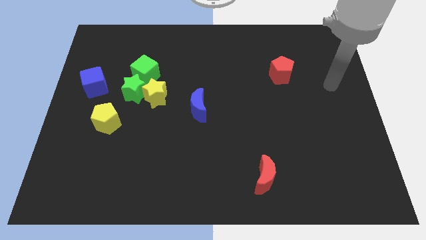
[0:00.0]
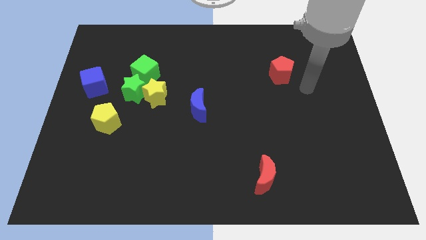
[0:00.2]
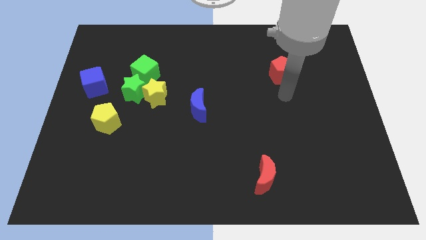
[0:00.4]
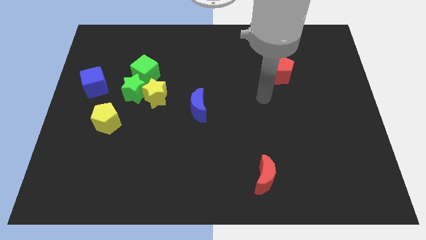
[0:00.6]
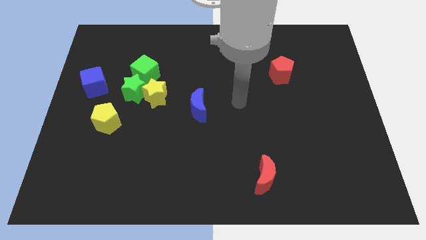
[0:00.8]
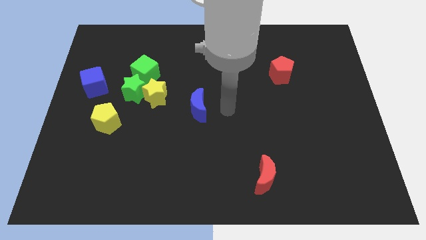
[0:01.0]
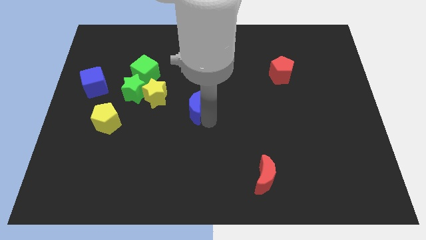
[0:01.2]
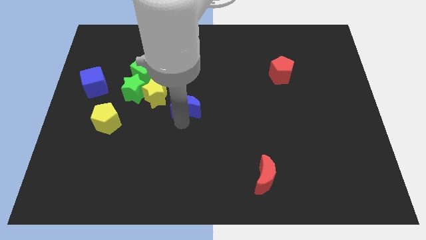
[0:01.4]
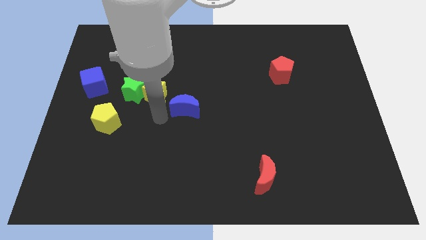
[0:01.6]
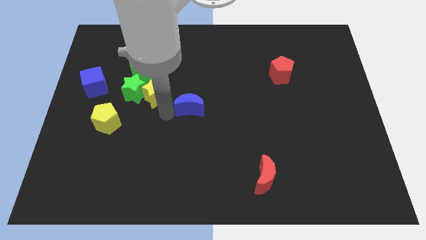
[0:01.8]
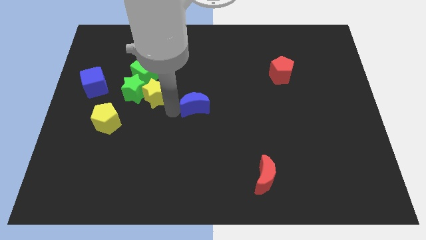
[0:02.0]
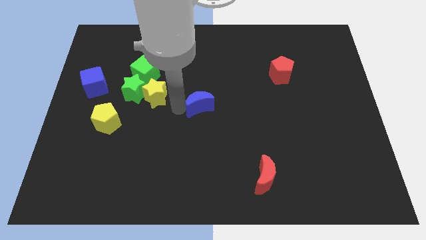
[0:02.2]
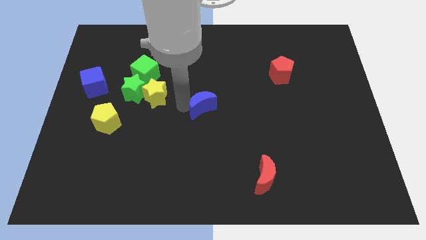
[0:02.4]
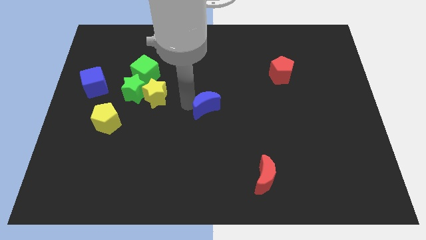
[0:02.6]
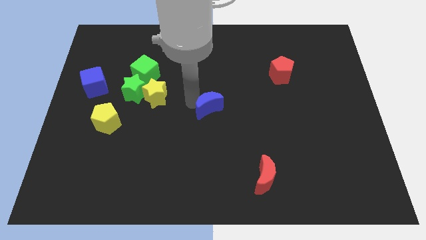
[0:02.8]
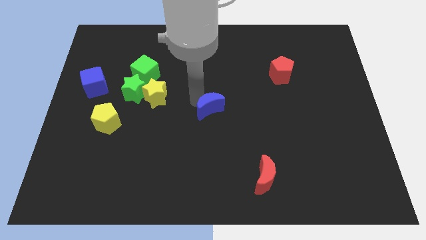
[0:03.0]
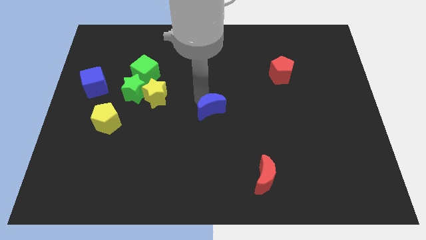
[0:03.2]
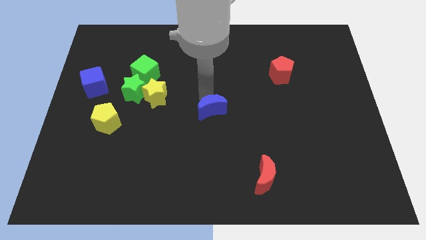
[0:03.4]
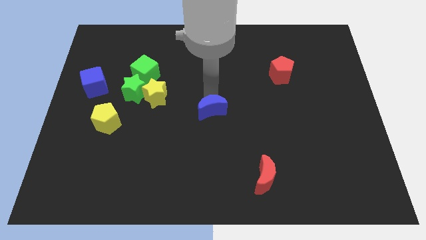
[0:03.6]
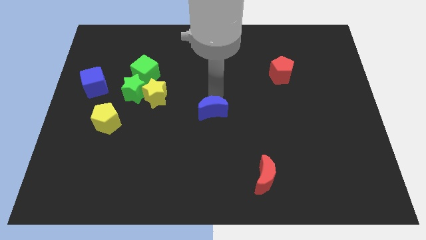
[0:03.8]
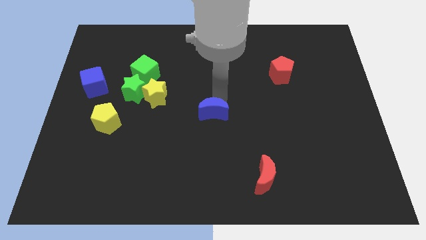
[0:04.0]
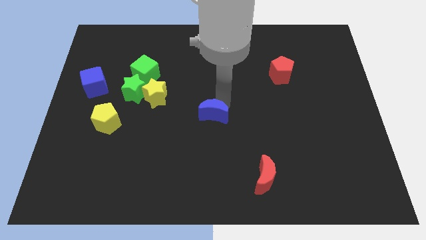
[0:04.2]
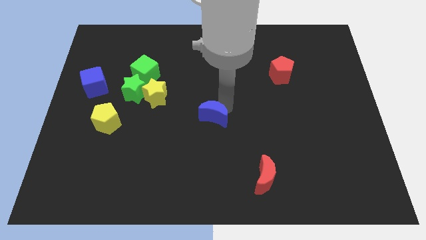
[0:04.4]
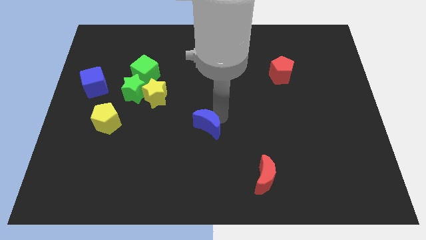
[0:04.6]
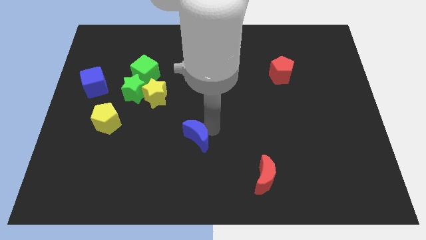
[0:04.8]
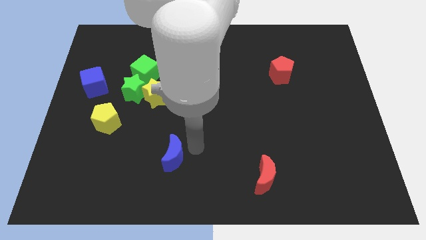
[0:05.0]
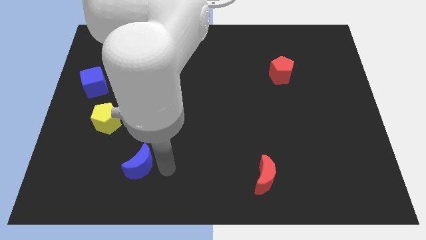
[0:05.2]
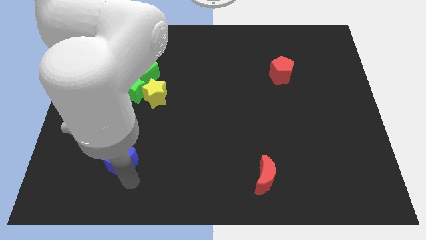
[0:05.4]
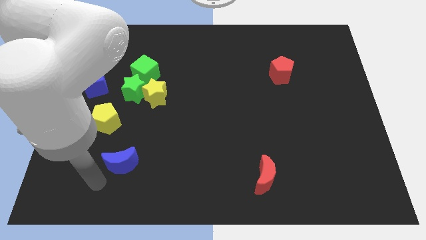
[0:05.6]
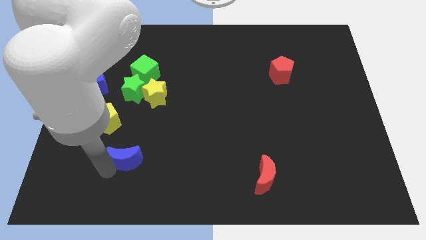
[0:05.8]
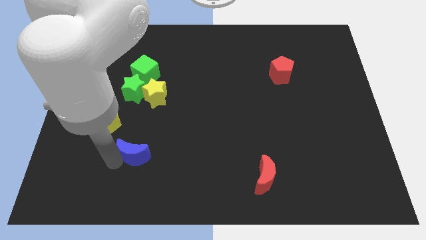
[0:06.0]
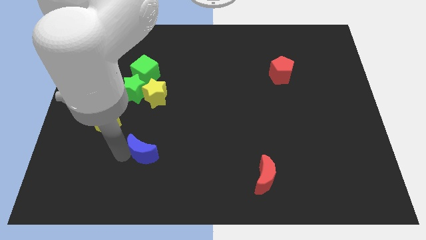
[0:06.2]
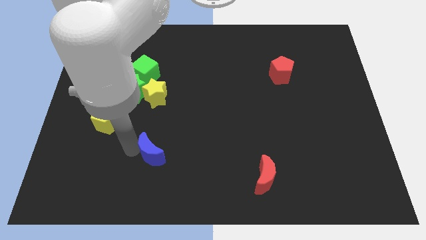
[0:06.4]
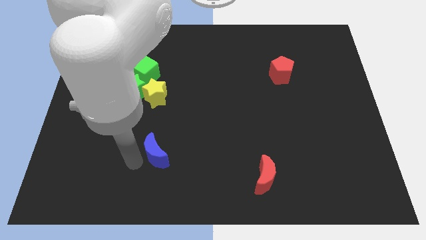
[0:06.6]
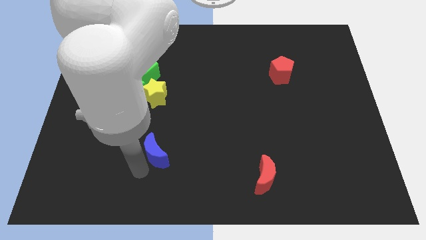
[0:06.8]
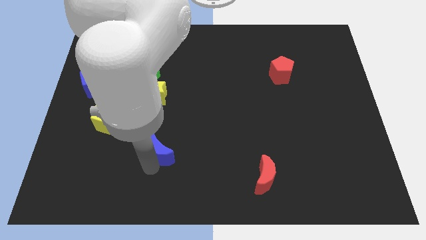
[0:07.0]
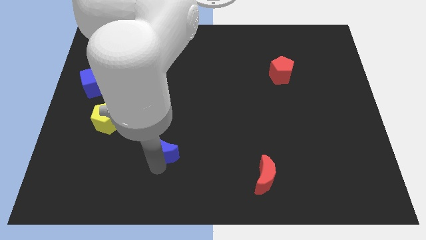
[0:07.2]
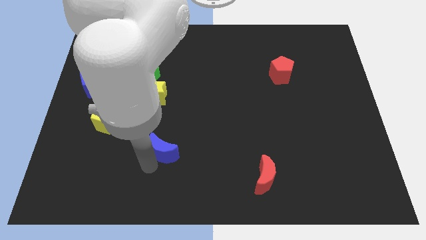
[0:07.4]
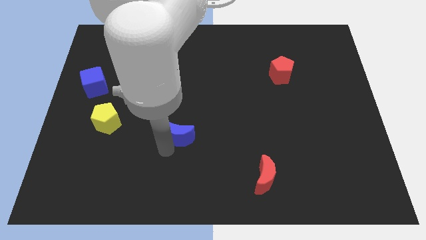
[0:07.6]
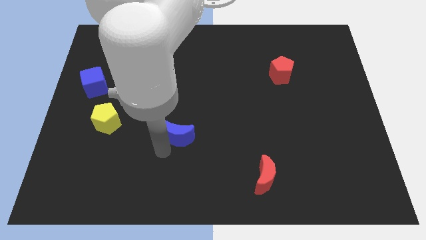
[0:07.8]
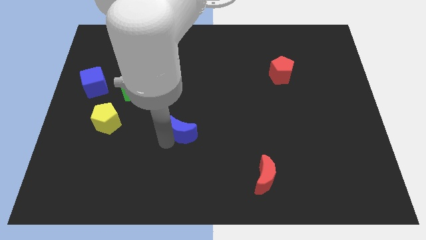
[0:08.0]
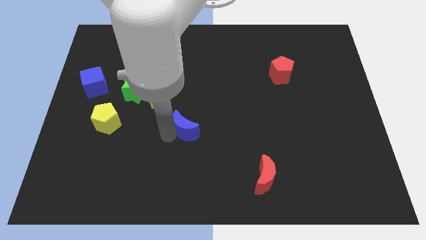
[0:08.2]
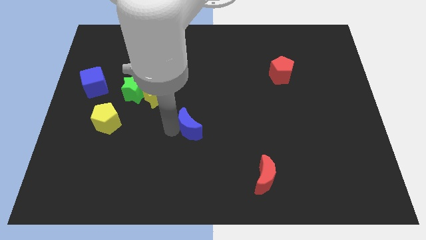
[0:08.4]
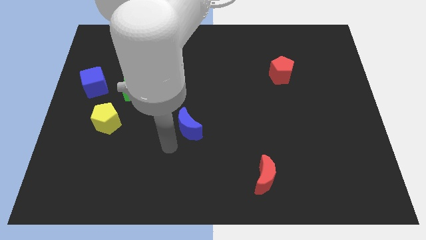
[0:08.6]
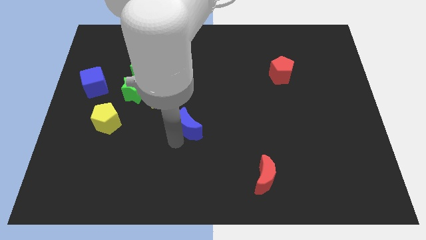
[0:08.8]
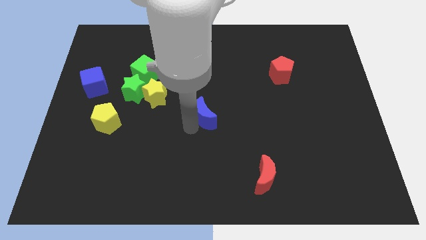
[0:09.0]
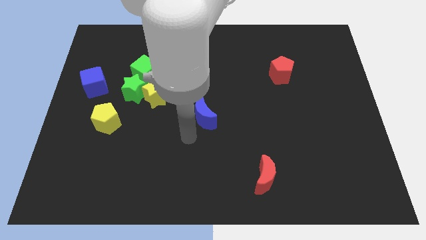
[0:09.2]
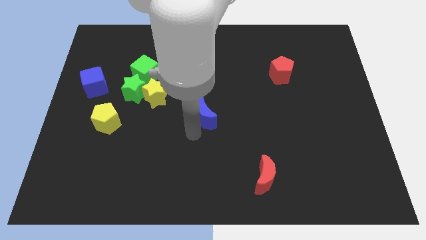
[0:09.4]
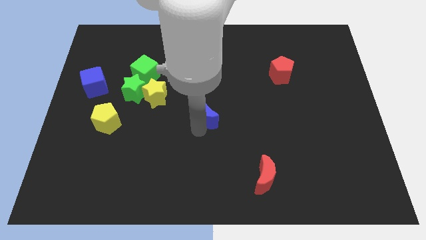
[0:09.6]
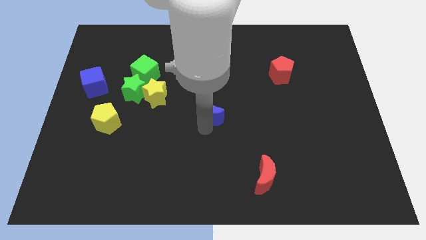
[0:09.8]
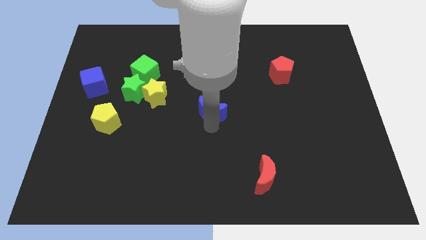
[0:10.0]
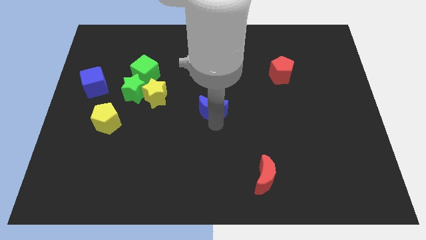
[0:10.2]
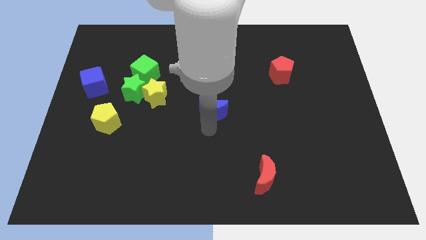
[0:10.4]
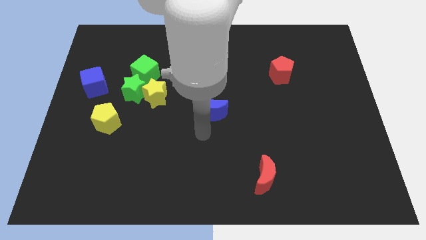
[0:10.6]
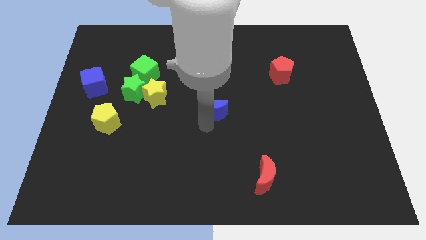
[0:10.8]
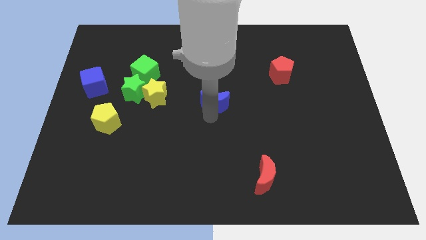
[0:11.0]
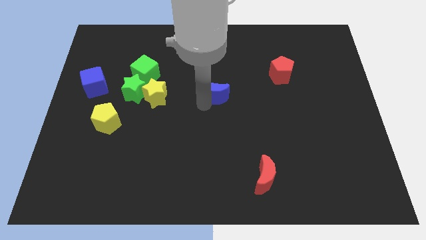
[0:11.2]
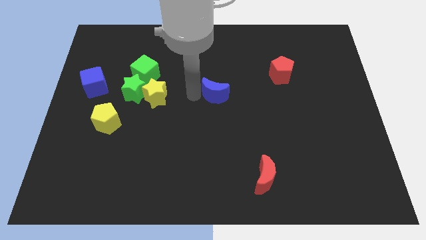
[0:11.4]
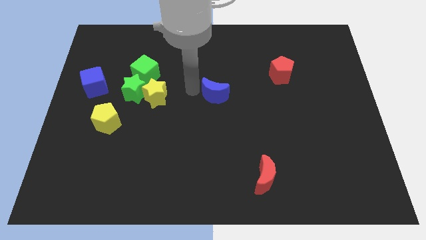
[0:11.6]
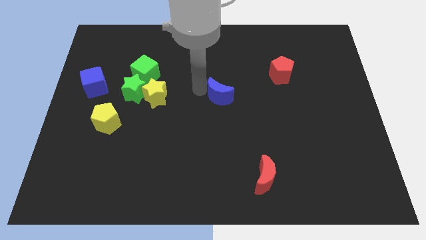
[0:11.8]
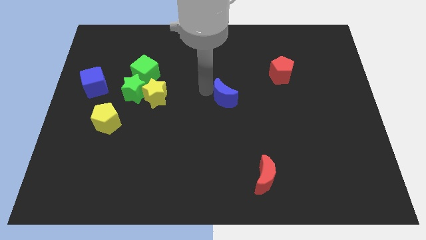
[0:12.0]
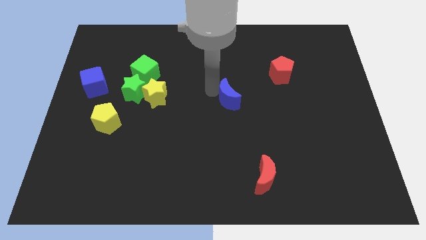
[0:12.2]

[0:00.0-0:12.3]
slide the blue moon to the right a little bit

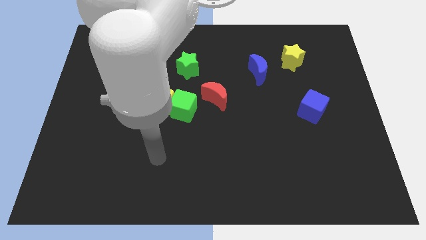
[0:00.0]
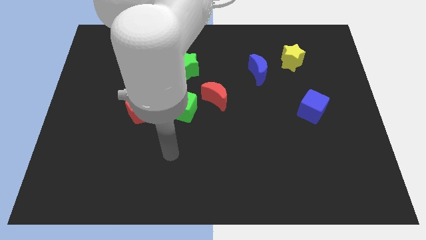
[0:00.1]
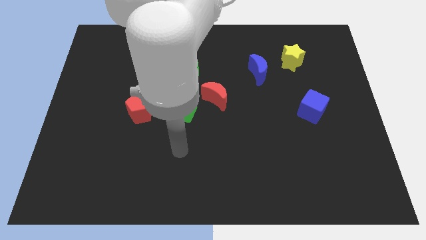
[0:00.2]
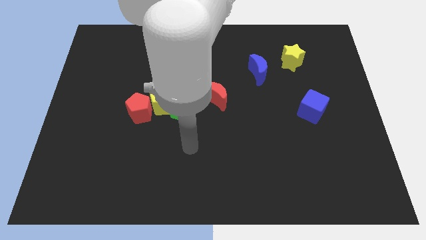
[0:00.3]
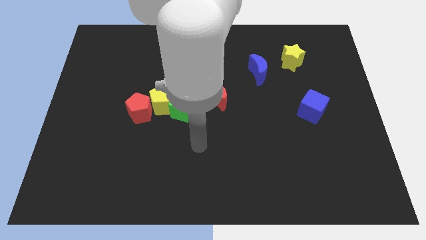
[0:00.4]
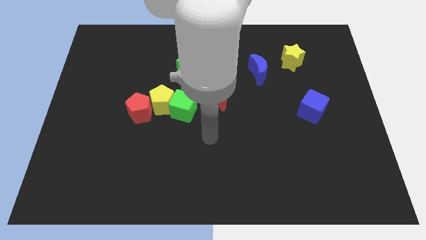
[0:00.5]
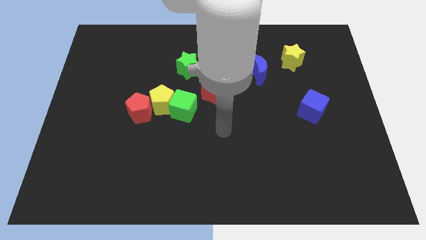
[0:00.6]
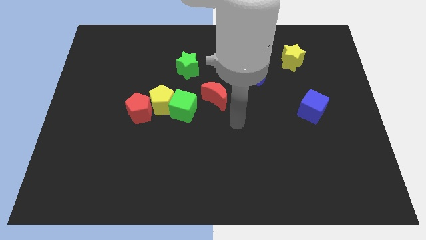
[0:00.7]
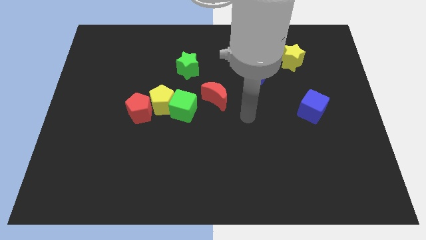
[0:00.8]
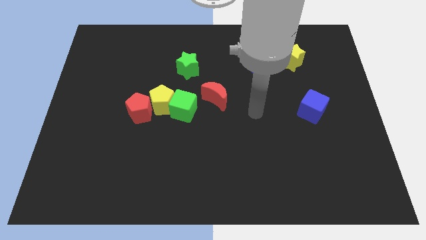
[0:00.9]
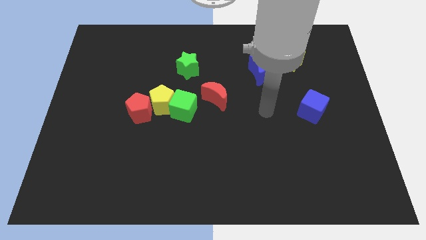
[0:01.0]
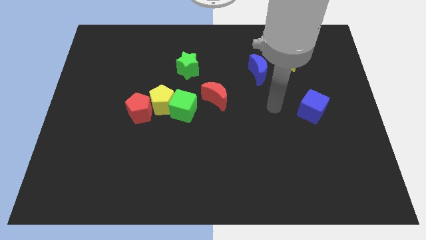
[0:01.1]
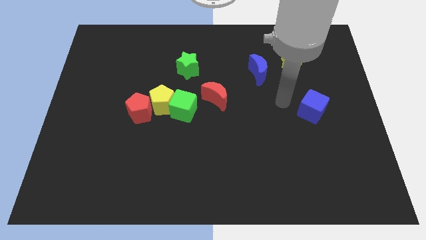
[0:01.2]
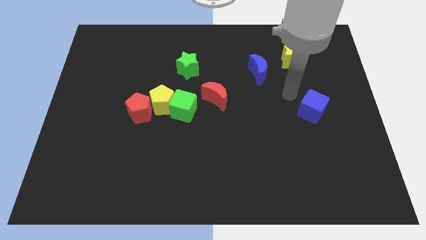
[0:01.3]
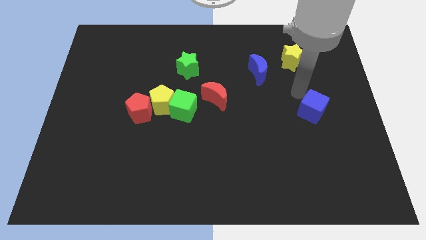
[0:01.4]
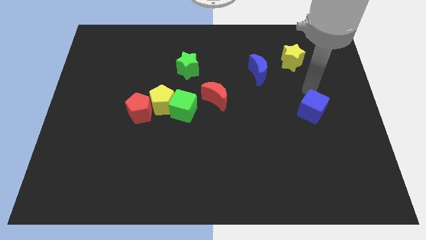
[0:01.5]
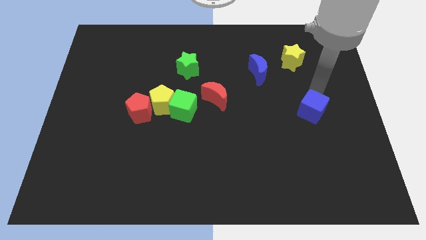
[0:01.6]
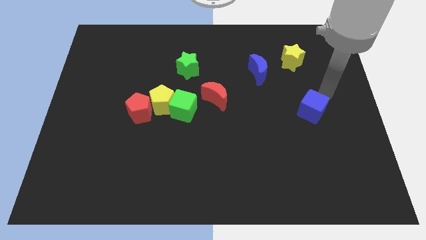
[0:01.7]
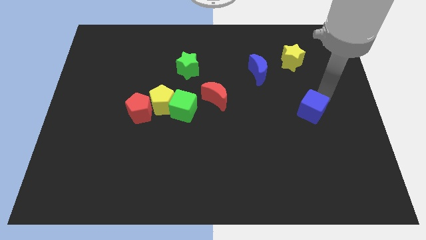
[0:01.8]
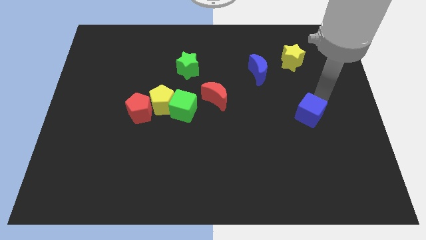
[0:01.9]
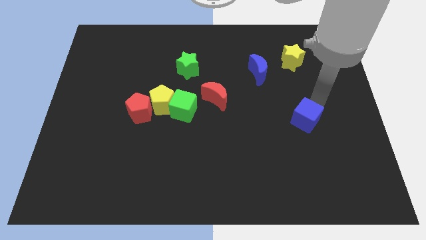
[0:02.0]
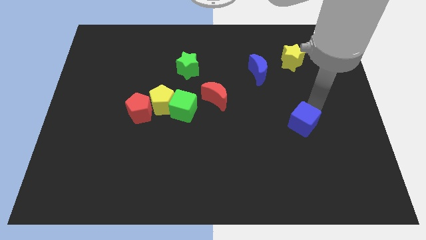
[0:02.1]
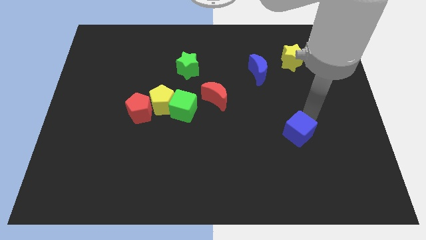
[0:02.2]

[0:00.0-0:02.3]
slide the blue cube a little bit downwards and to the left
